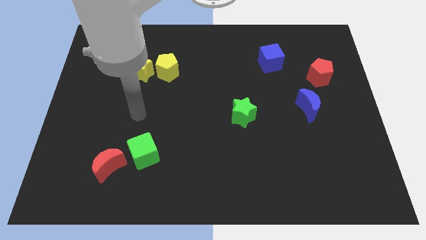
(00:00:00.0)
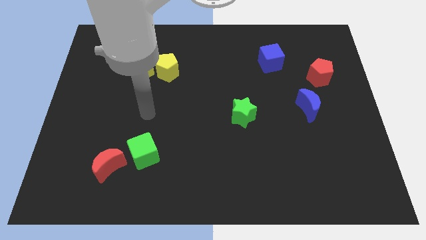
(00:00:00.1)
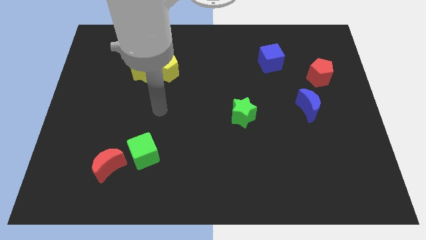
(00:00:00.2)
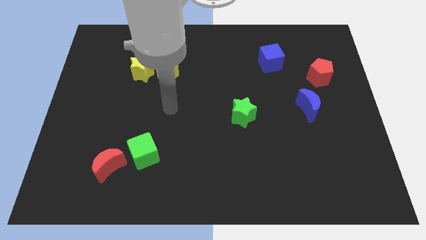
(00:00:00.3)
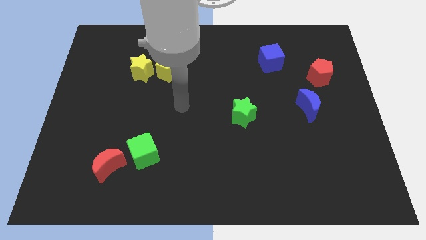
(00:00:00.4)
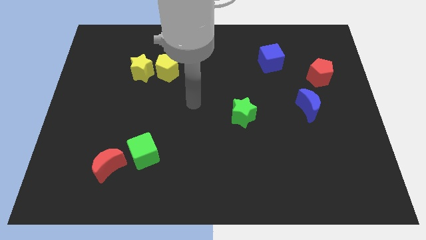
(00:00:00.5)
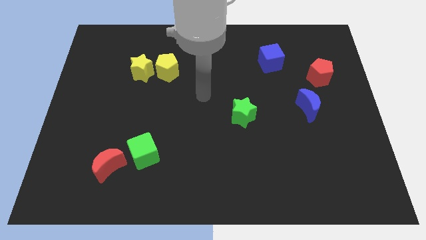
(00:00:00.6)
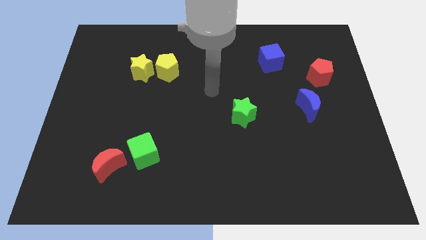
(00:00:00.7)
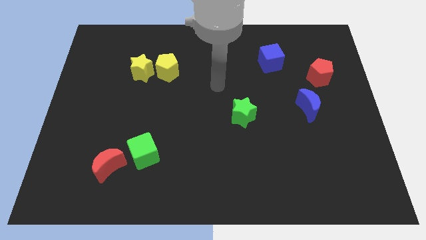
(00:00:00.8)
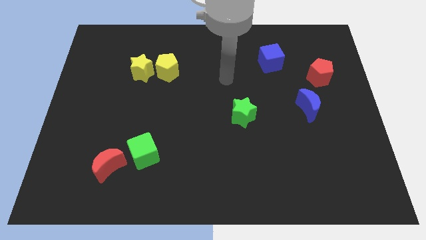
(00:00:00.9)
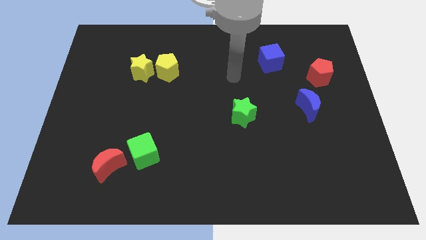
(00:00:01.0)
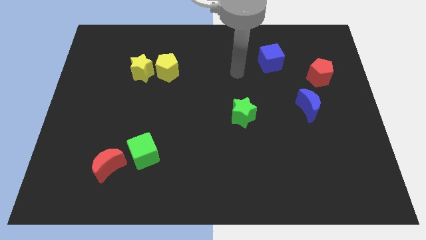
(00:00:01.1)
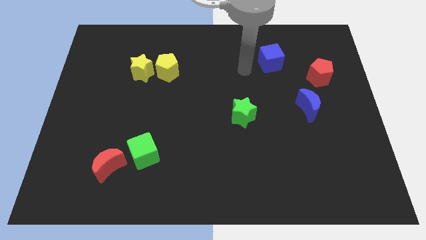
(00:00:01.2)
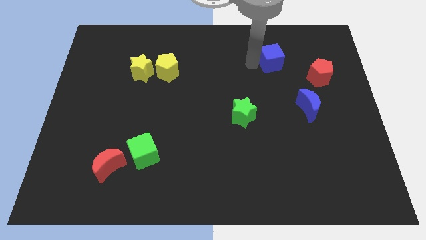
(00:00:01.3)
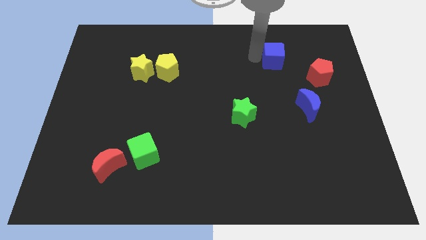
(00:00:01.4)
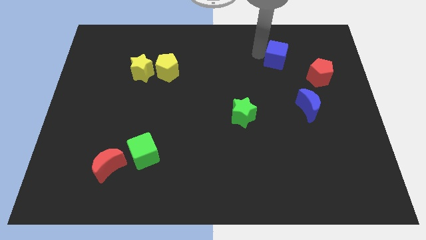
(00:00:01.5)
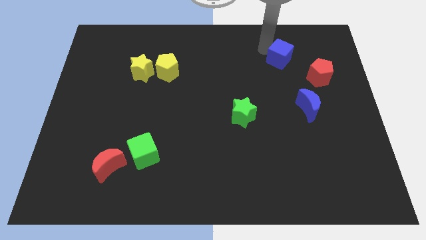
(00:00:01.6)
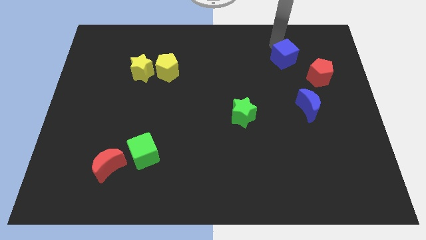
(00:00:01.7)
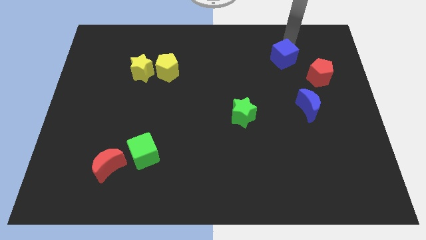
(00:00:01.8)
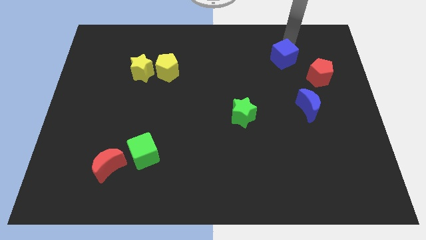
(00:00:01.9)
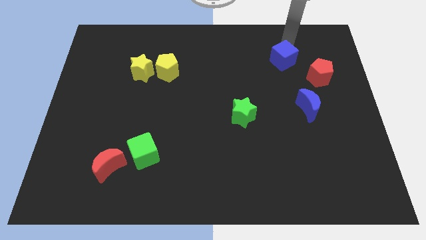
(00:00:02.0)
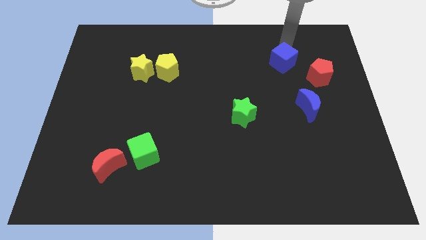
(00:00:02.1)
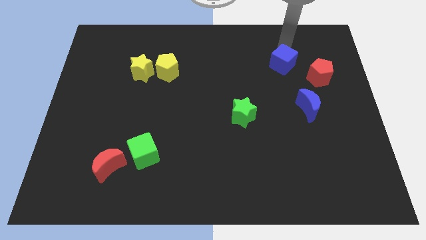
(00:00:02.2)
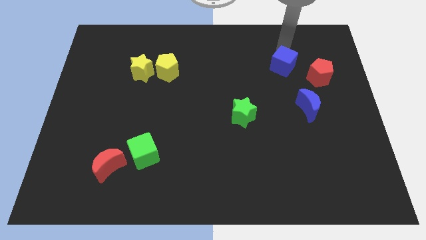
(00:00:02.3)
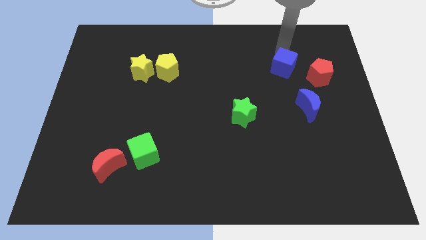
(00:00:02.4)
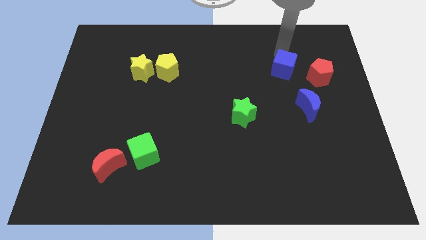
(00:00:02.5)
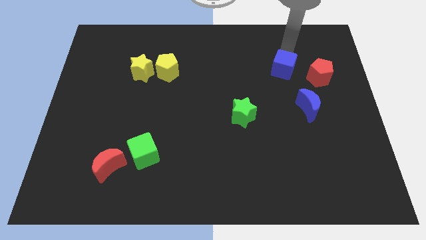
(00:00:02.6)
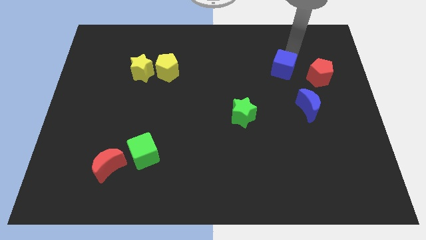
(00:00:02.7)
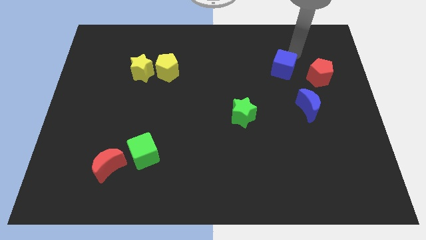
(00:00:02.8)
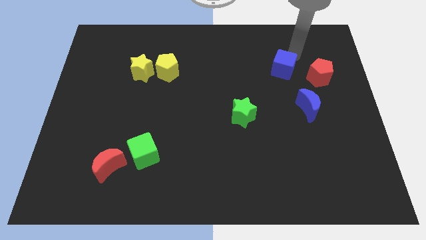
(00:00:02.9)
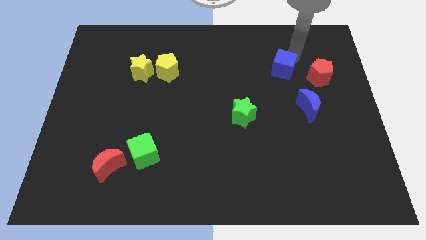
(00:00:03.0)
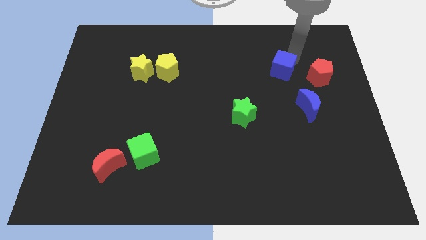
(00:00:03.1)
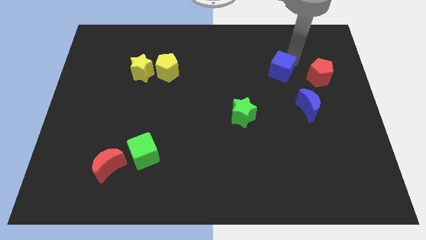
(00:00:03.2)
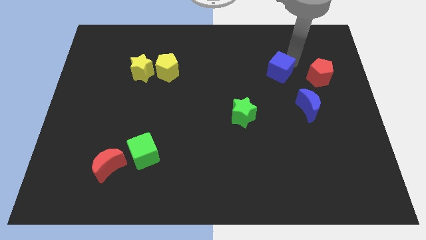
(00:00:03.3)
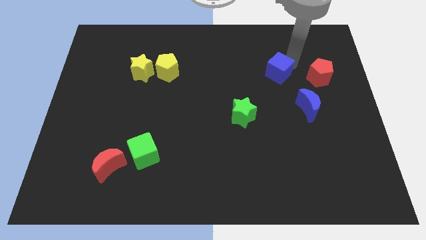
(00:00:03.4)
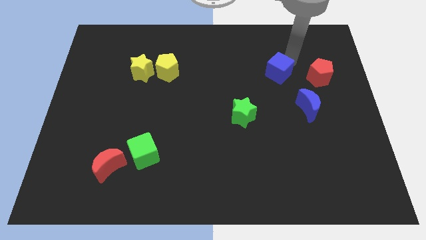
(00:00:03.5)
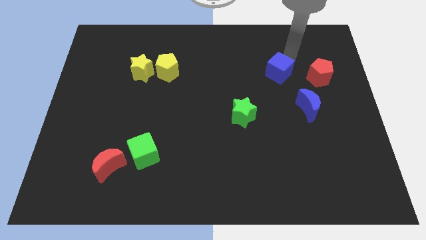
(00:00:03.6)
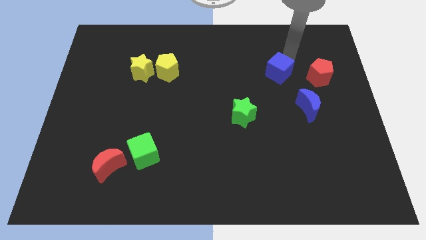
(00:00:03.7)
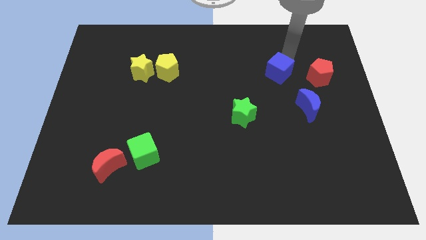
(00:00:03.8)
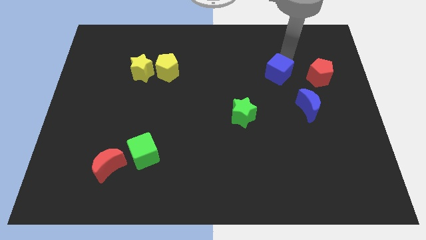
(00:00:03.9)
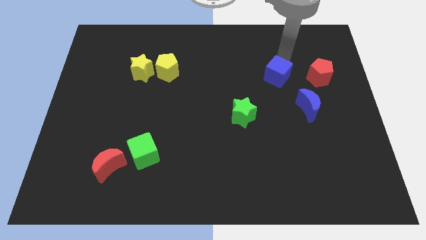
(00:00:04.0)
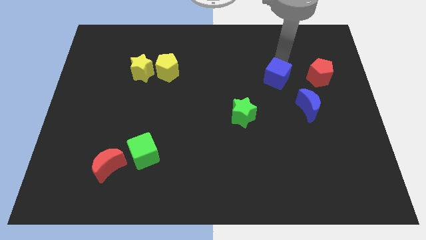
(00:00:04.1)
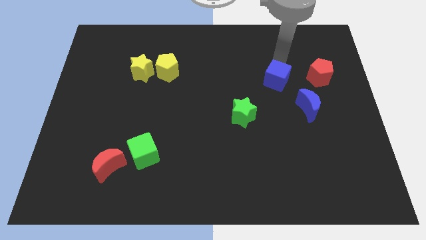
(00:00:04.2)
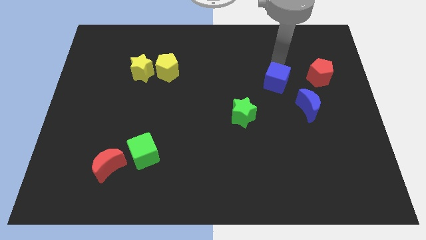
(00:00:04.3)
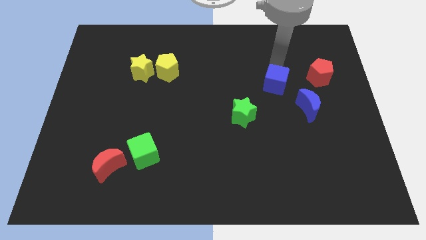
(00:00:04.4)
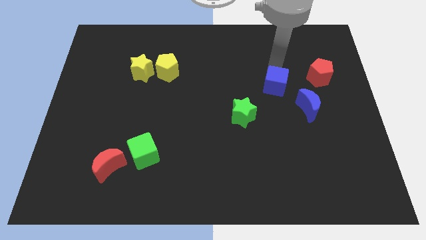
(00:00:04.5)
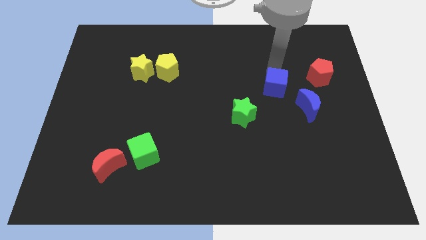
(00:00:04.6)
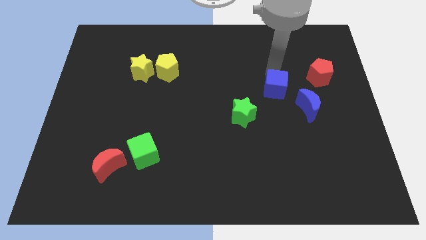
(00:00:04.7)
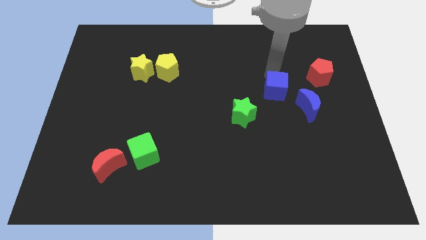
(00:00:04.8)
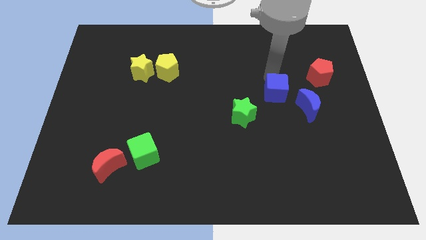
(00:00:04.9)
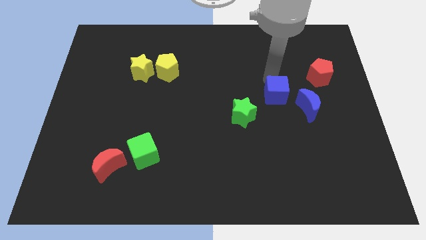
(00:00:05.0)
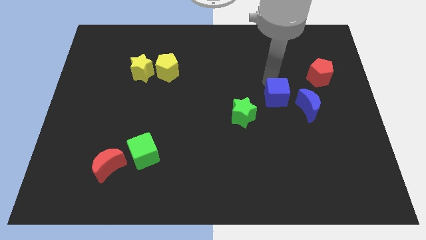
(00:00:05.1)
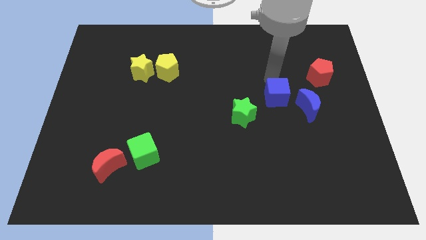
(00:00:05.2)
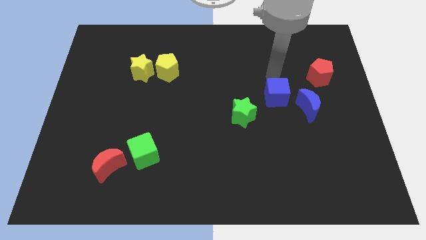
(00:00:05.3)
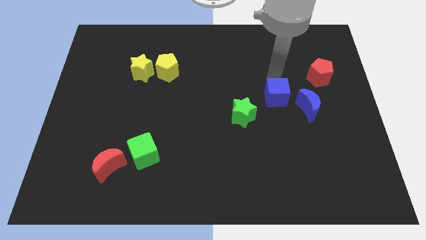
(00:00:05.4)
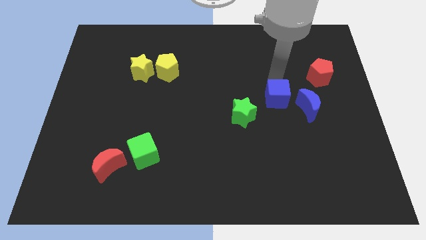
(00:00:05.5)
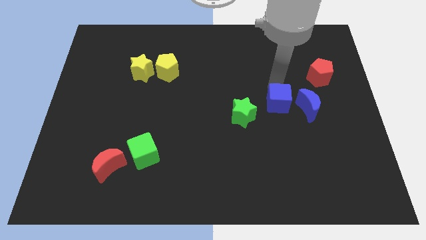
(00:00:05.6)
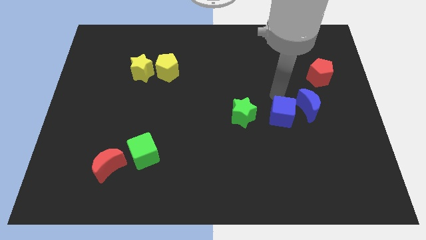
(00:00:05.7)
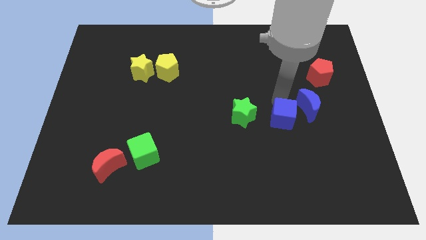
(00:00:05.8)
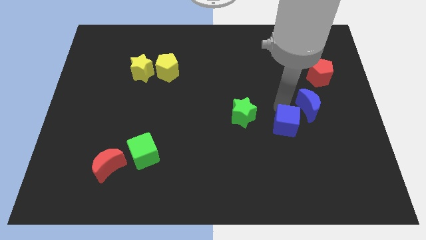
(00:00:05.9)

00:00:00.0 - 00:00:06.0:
move the blue cube downwards

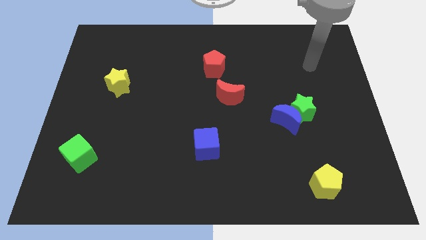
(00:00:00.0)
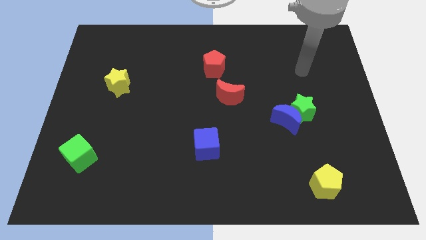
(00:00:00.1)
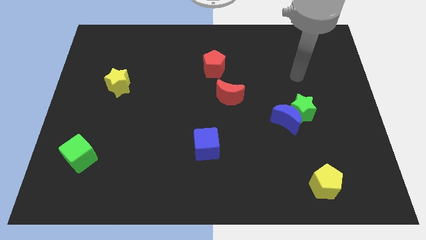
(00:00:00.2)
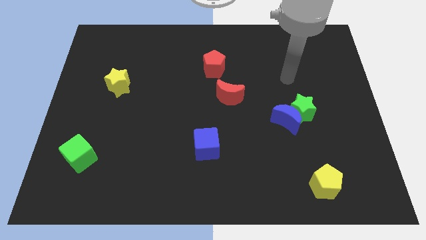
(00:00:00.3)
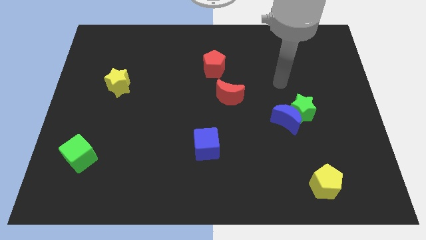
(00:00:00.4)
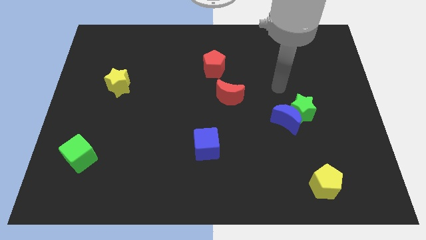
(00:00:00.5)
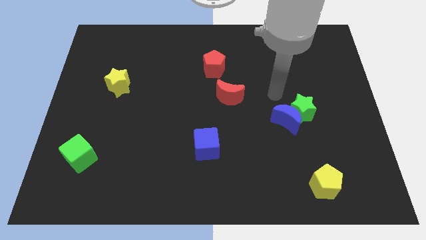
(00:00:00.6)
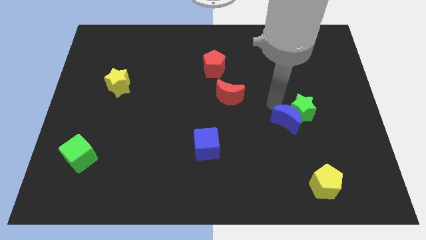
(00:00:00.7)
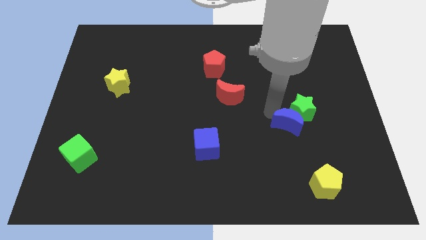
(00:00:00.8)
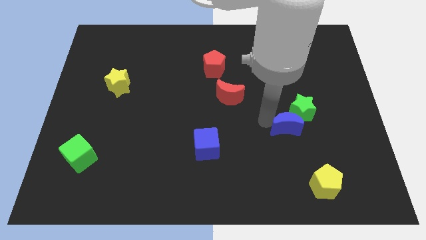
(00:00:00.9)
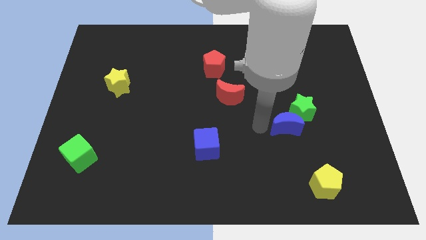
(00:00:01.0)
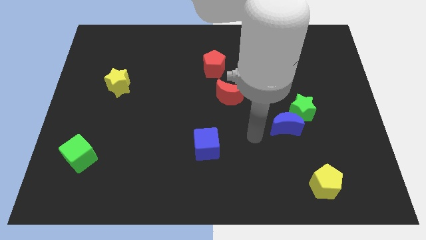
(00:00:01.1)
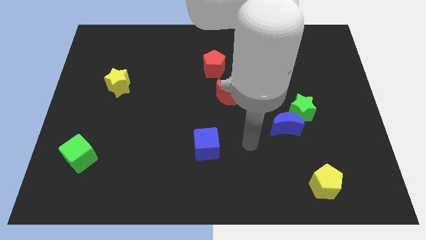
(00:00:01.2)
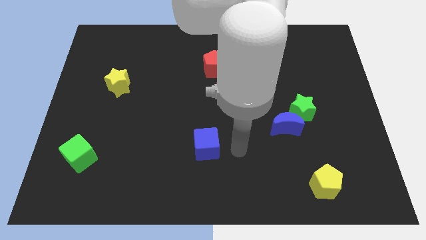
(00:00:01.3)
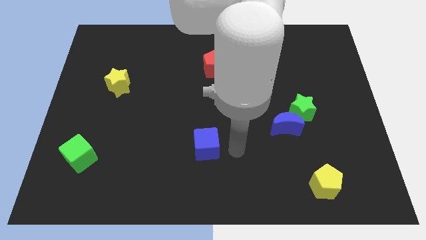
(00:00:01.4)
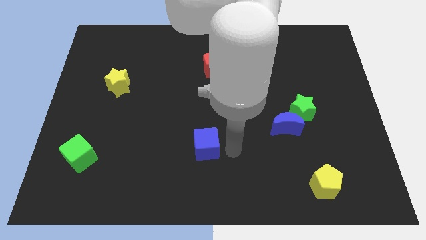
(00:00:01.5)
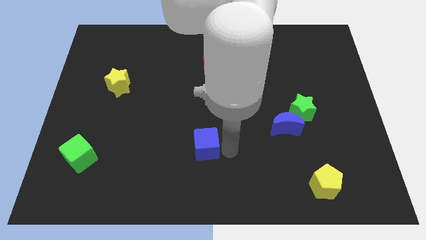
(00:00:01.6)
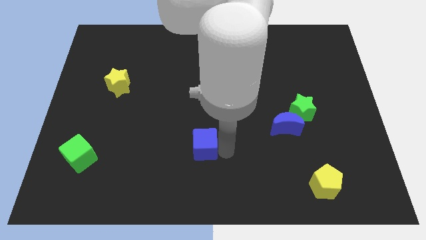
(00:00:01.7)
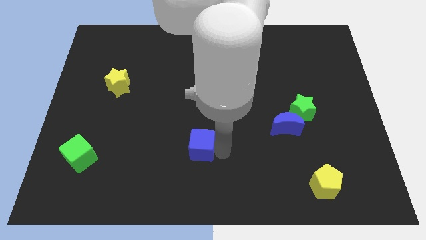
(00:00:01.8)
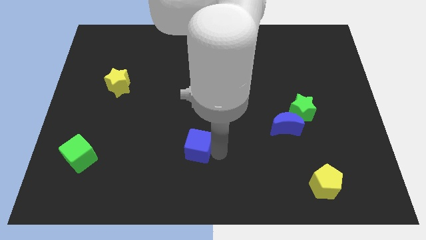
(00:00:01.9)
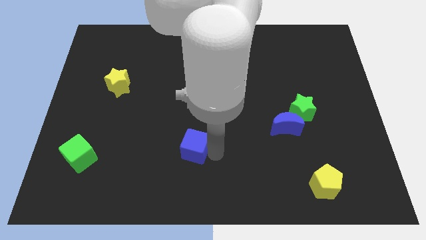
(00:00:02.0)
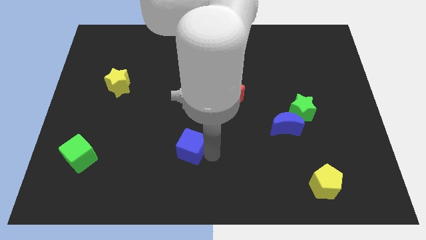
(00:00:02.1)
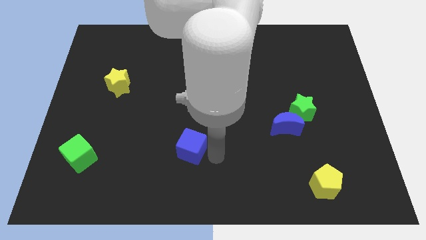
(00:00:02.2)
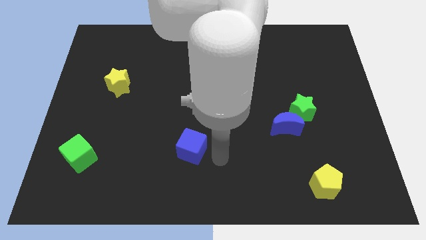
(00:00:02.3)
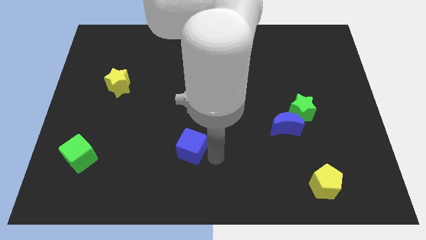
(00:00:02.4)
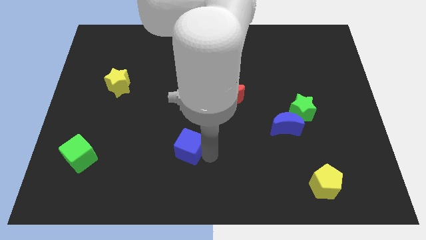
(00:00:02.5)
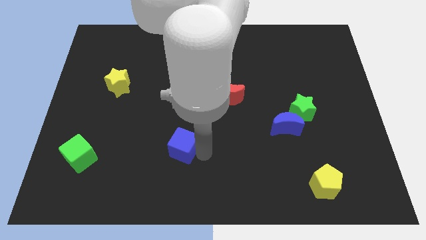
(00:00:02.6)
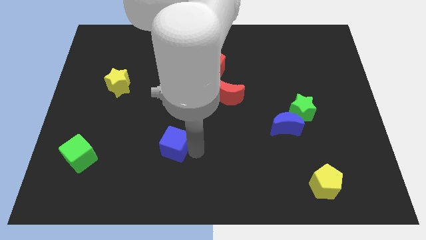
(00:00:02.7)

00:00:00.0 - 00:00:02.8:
slide the blue cube a little to the left
